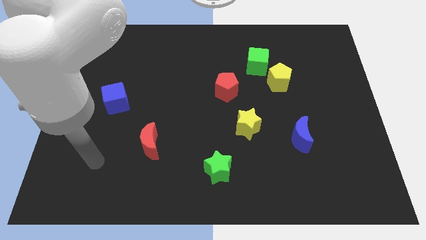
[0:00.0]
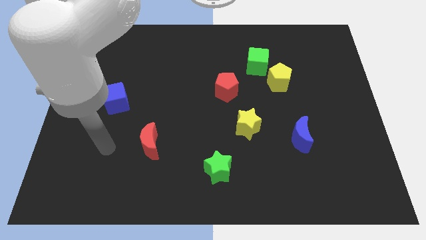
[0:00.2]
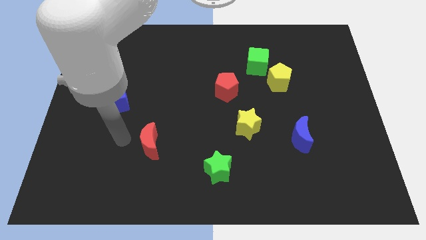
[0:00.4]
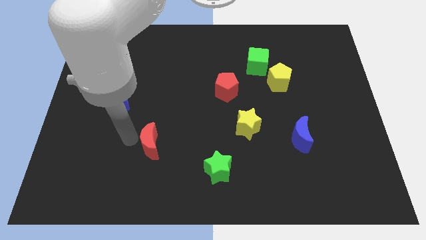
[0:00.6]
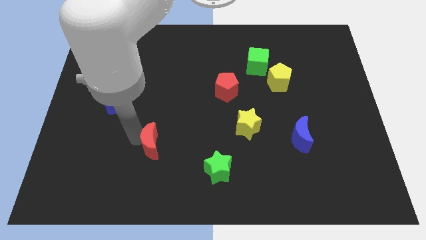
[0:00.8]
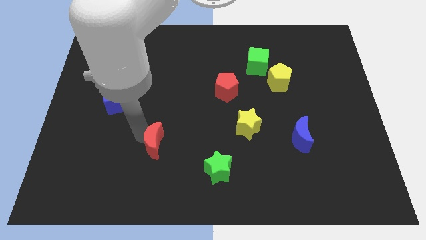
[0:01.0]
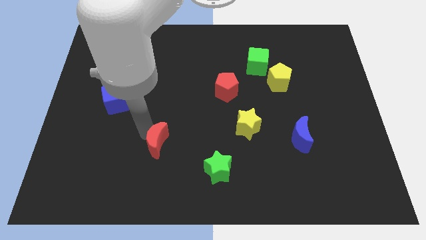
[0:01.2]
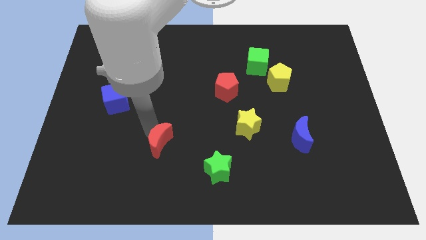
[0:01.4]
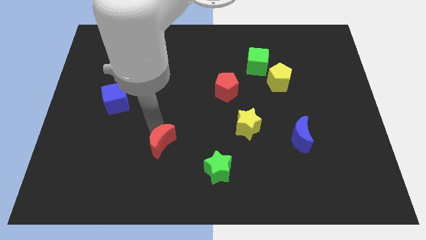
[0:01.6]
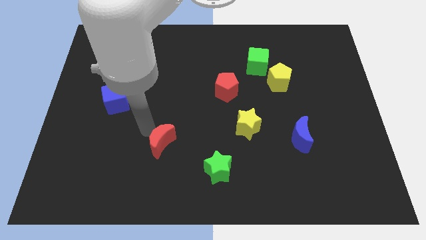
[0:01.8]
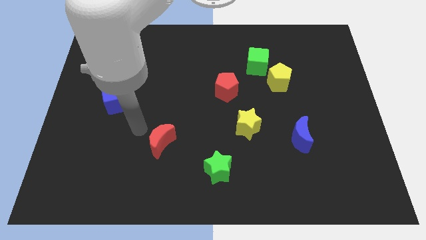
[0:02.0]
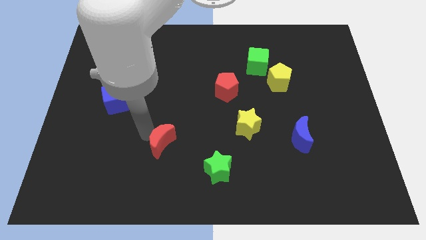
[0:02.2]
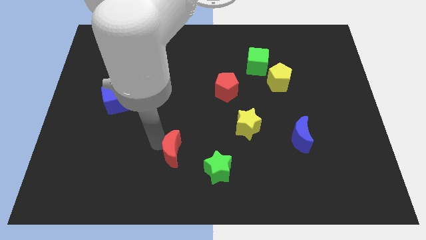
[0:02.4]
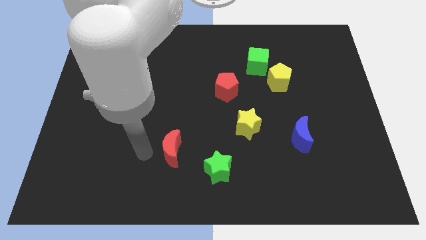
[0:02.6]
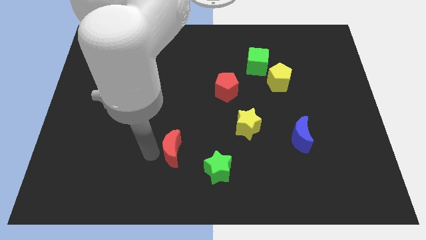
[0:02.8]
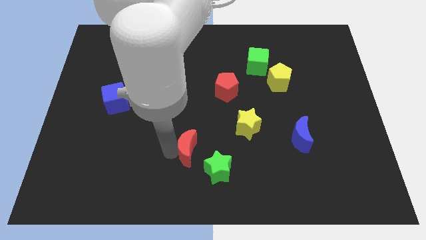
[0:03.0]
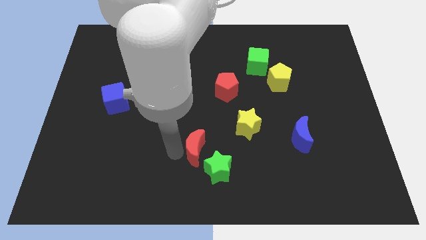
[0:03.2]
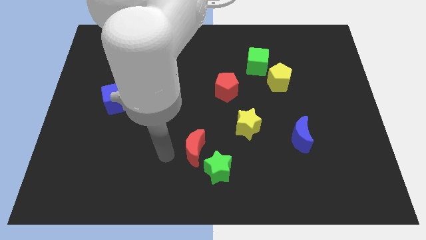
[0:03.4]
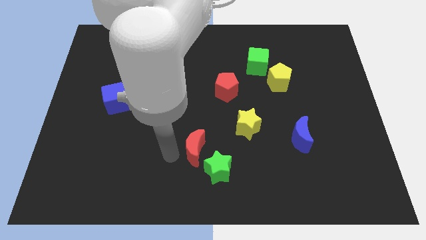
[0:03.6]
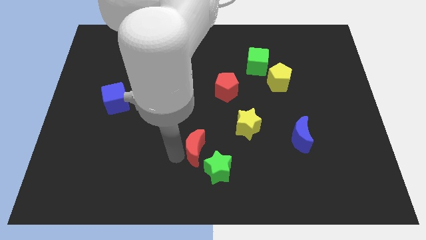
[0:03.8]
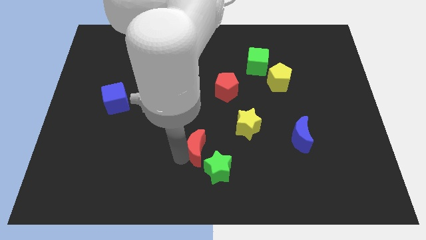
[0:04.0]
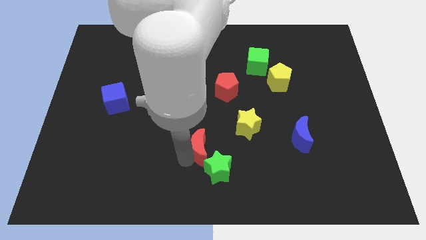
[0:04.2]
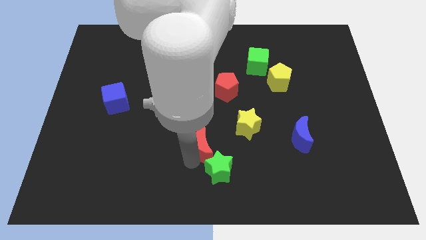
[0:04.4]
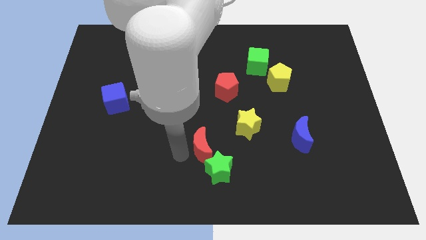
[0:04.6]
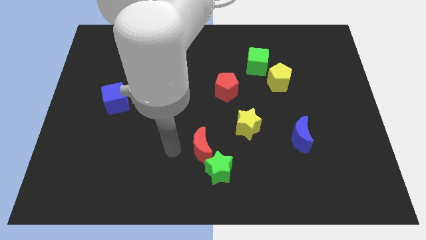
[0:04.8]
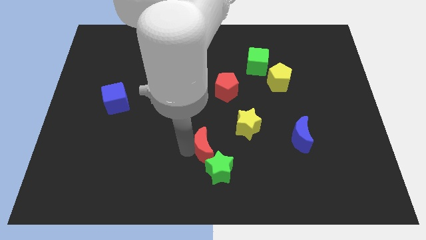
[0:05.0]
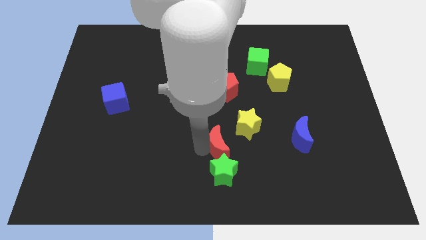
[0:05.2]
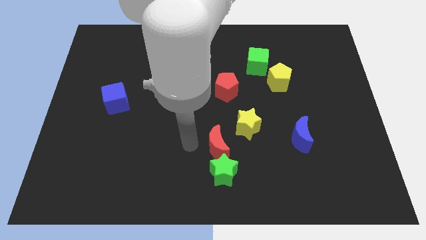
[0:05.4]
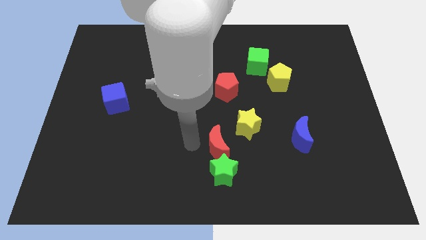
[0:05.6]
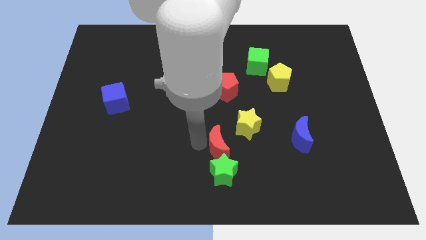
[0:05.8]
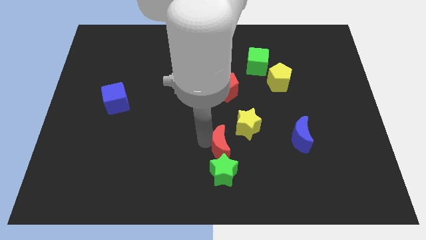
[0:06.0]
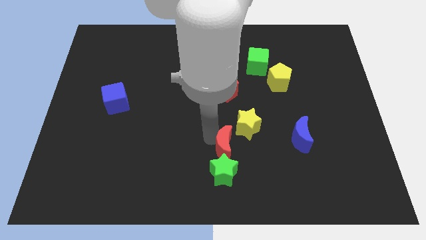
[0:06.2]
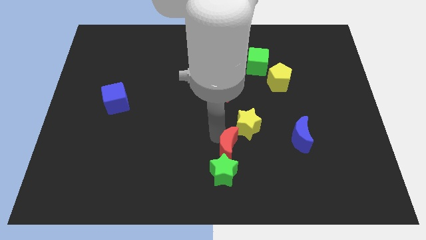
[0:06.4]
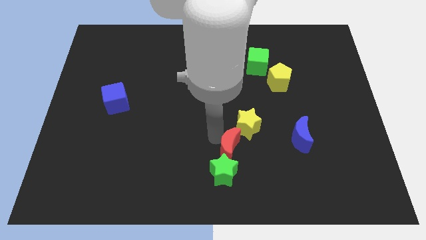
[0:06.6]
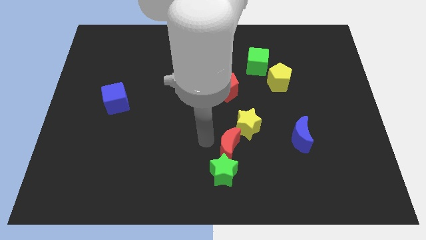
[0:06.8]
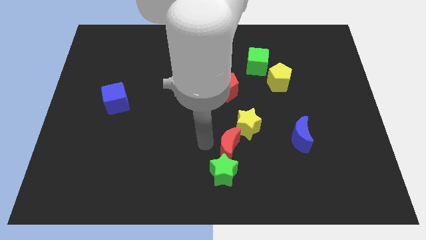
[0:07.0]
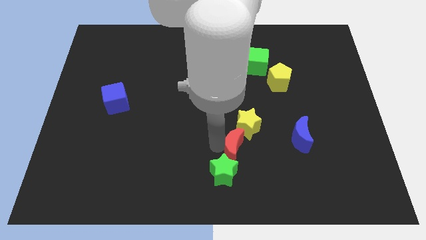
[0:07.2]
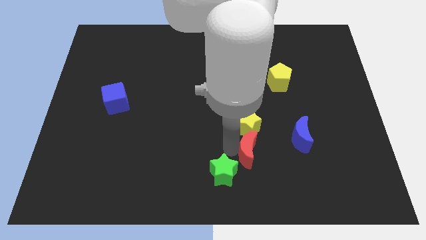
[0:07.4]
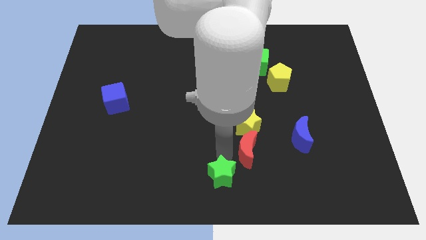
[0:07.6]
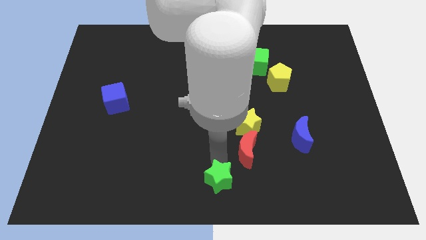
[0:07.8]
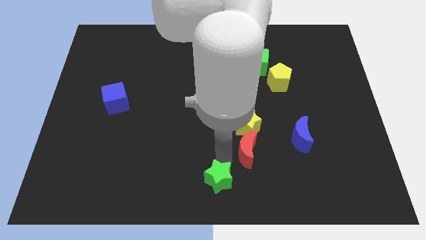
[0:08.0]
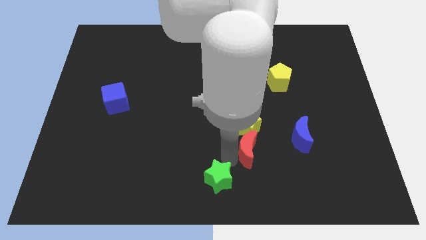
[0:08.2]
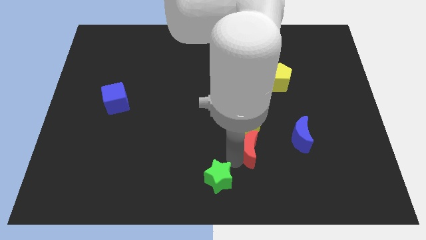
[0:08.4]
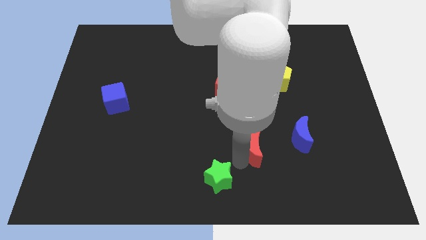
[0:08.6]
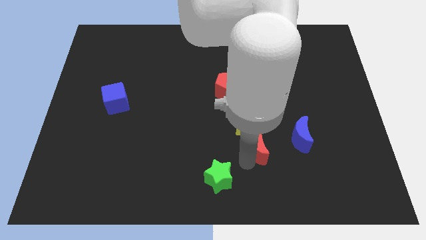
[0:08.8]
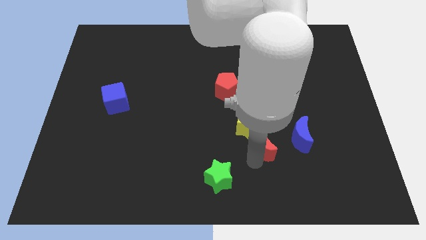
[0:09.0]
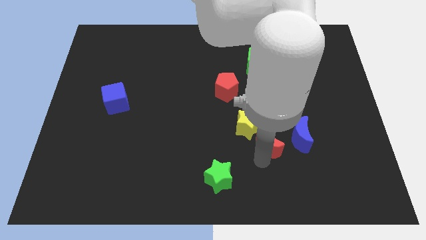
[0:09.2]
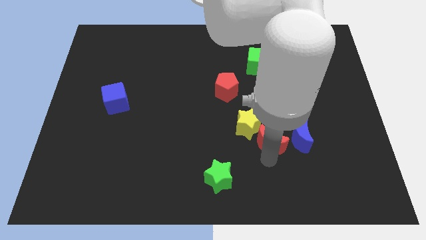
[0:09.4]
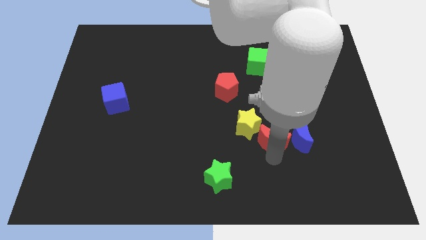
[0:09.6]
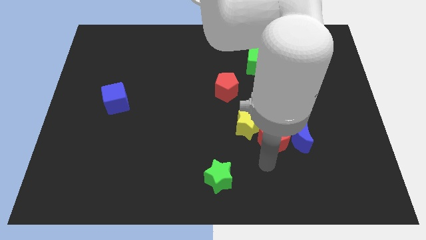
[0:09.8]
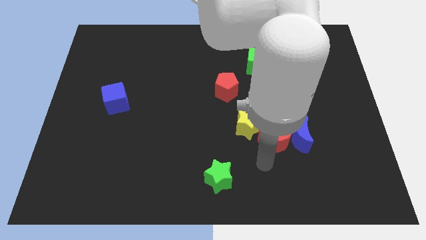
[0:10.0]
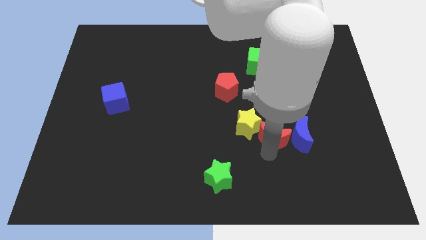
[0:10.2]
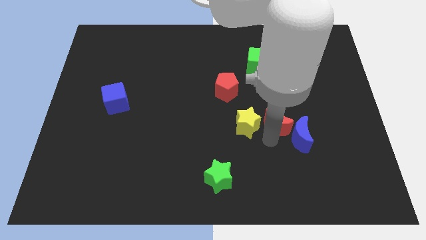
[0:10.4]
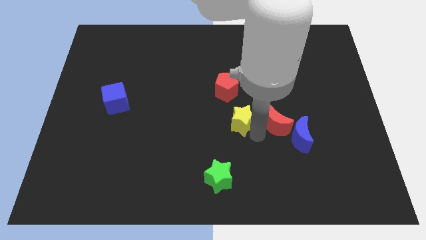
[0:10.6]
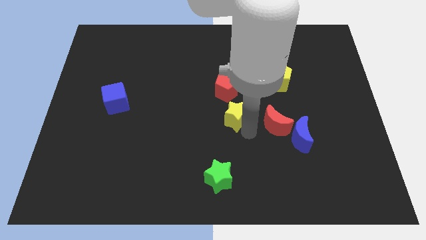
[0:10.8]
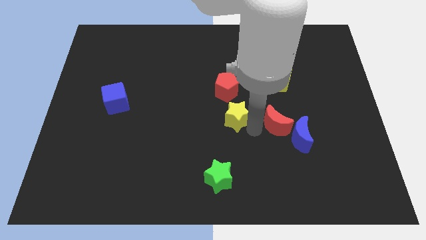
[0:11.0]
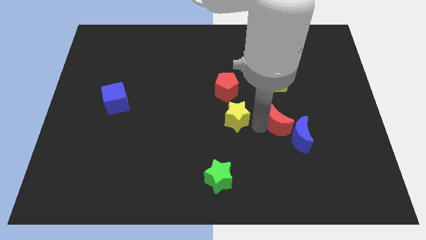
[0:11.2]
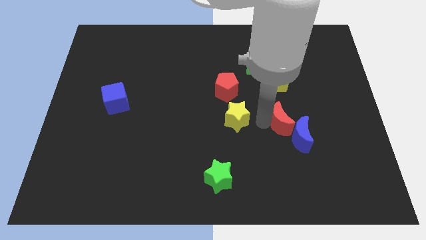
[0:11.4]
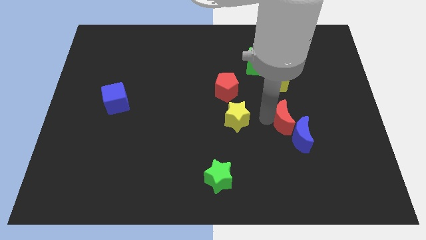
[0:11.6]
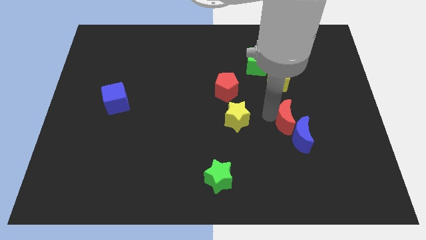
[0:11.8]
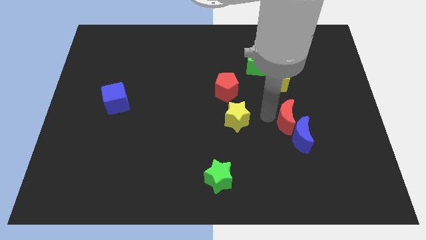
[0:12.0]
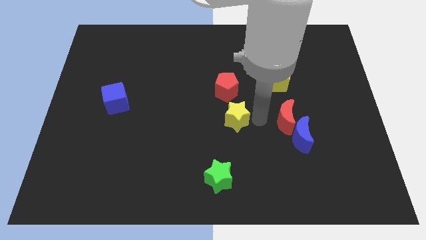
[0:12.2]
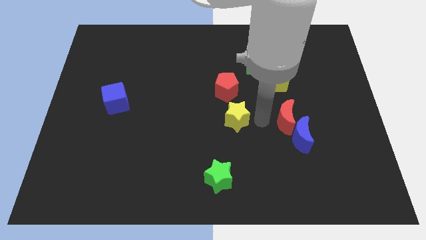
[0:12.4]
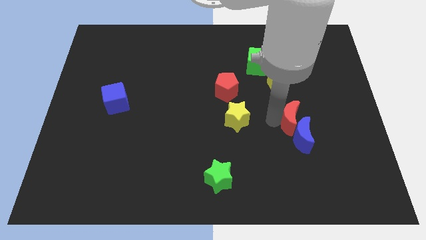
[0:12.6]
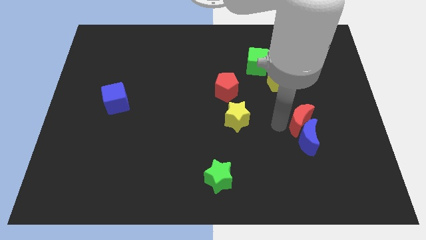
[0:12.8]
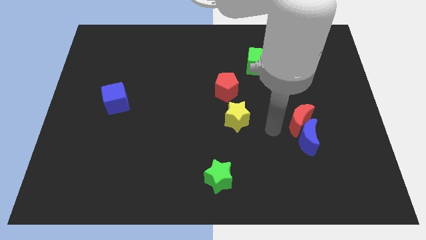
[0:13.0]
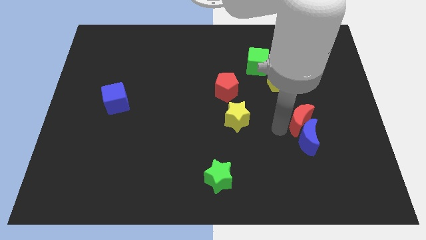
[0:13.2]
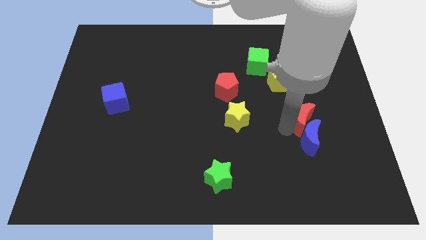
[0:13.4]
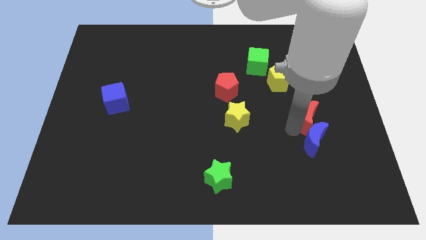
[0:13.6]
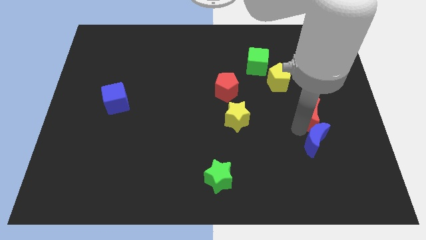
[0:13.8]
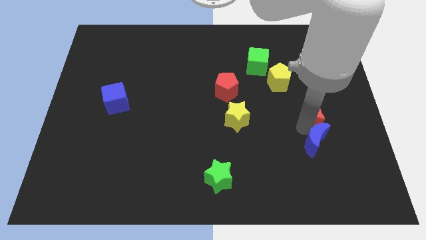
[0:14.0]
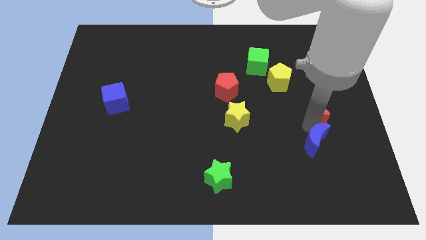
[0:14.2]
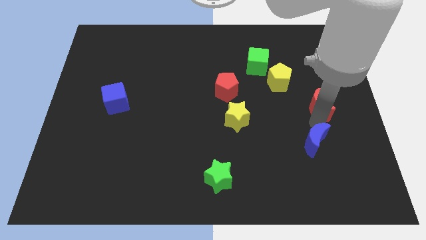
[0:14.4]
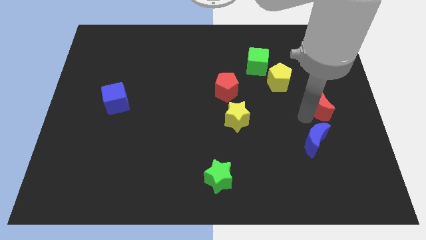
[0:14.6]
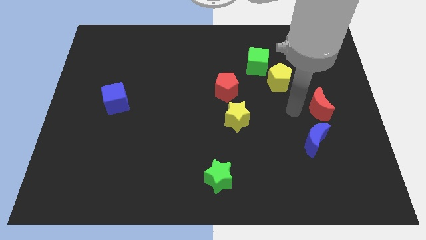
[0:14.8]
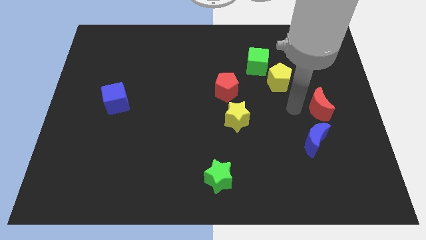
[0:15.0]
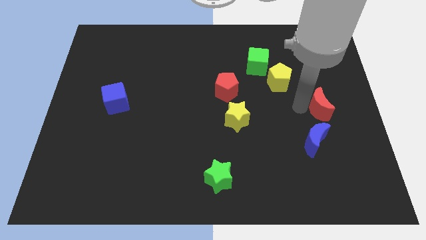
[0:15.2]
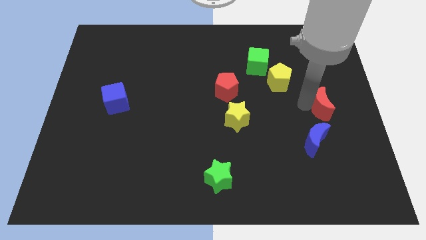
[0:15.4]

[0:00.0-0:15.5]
slide the red moon to the right side of the board
